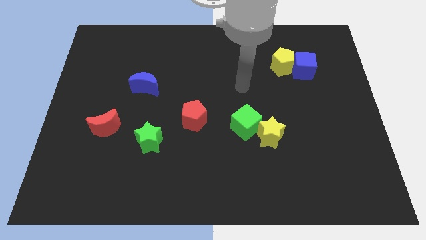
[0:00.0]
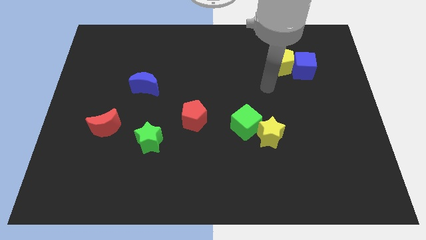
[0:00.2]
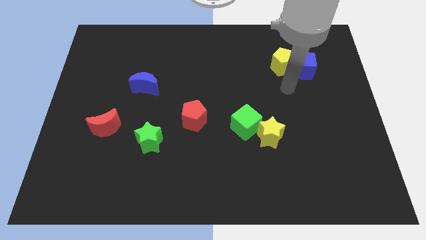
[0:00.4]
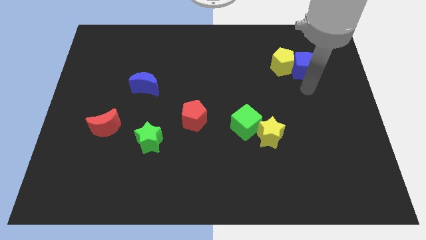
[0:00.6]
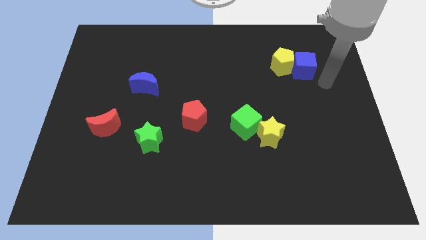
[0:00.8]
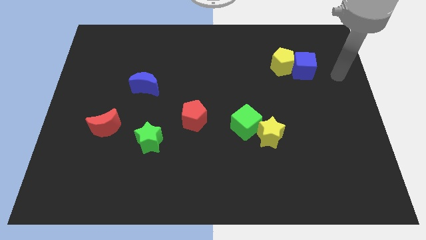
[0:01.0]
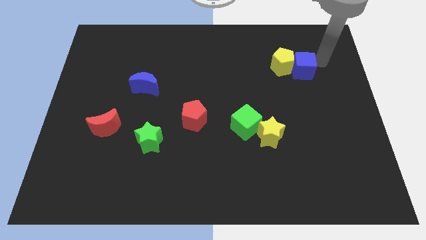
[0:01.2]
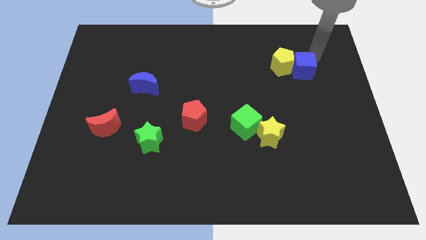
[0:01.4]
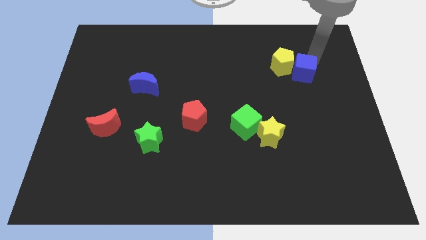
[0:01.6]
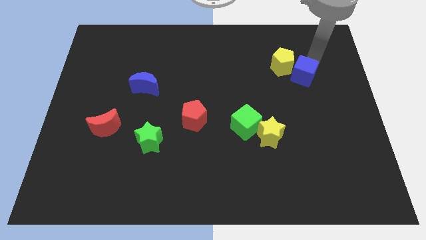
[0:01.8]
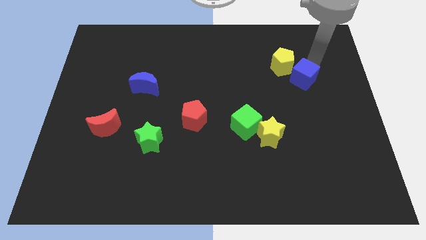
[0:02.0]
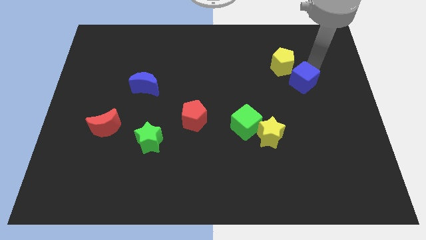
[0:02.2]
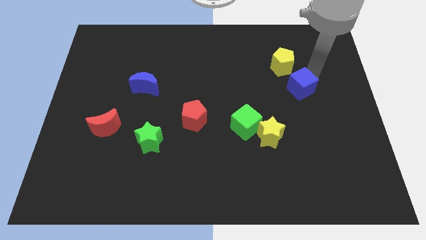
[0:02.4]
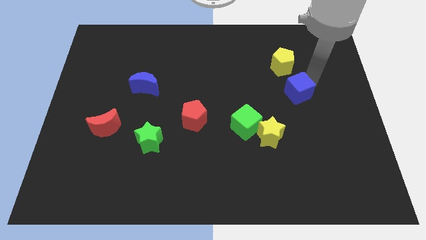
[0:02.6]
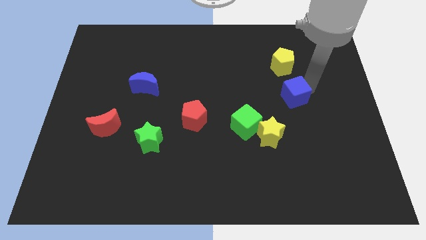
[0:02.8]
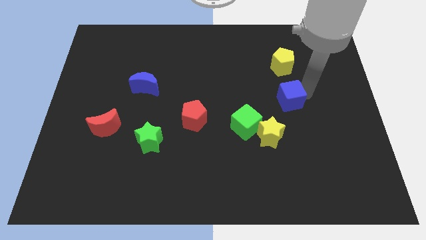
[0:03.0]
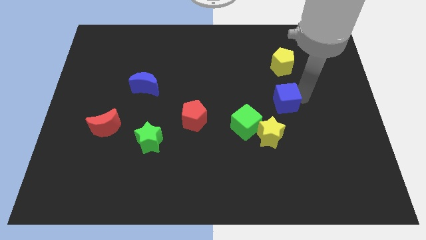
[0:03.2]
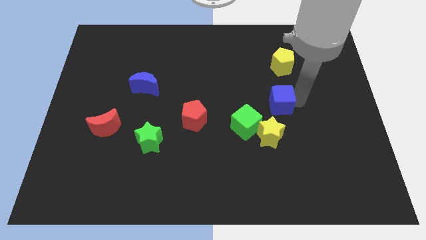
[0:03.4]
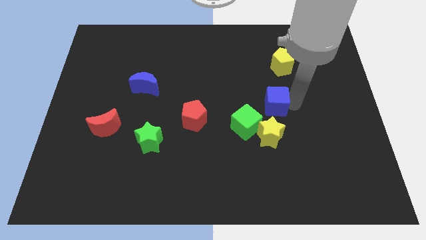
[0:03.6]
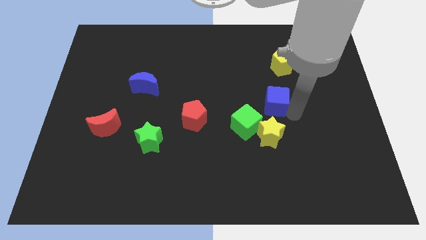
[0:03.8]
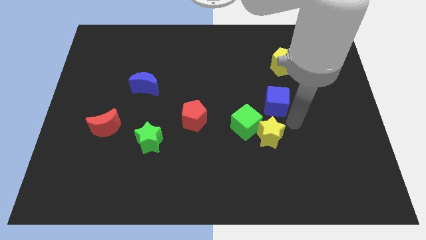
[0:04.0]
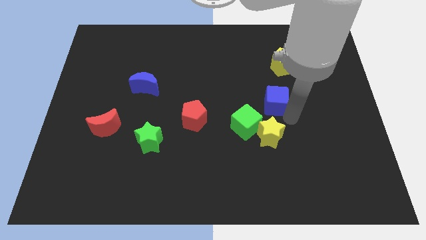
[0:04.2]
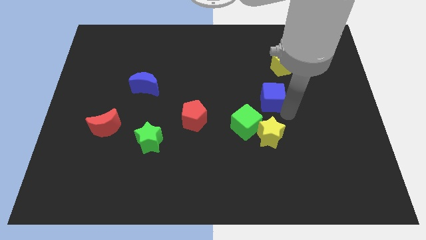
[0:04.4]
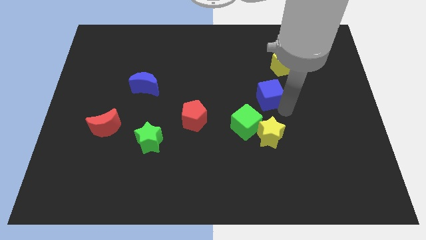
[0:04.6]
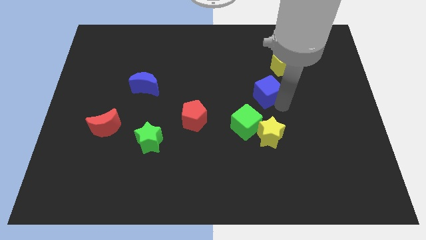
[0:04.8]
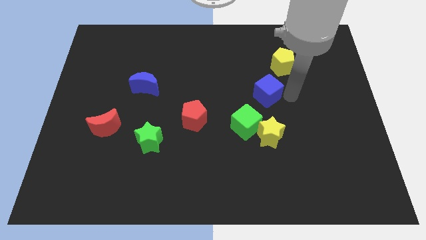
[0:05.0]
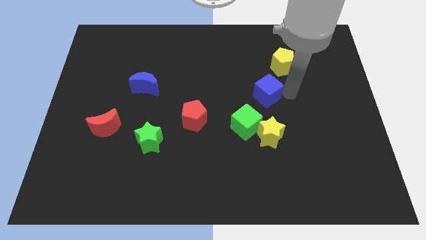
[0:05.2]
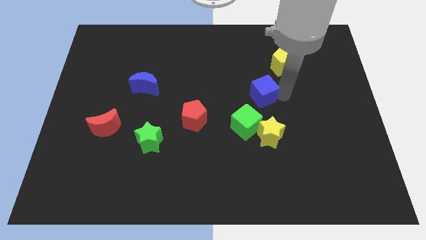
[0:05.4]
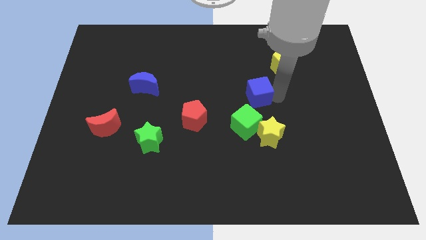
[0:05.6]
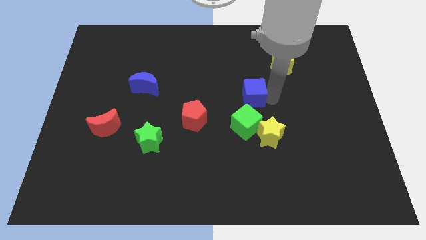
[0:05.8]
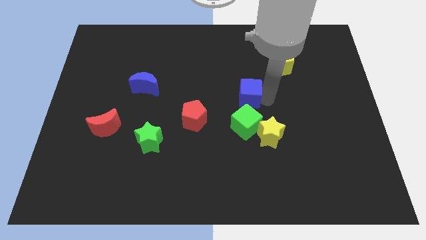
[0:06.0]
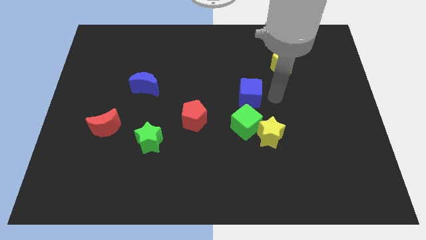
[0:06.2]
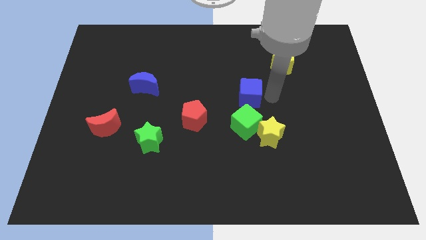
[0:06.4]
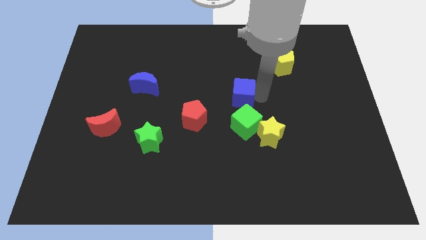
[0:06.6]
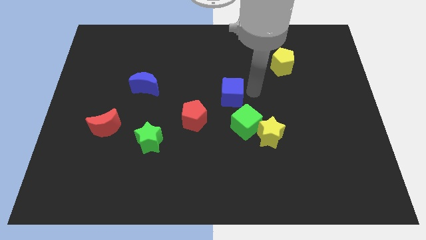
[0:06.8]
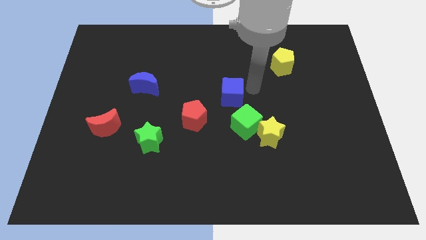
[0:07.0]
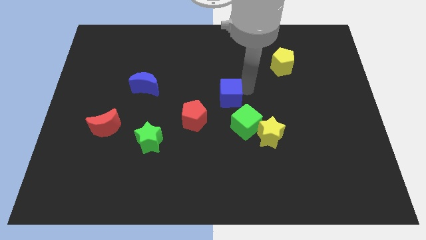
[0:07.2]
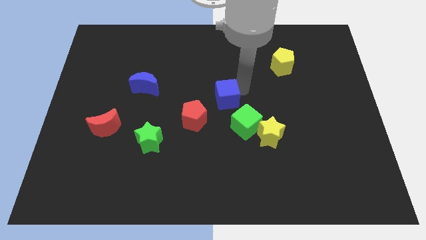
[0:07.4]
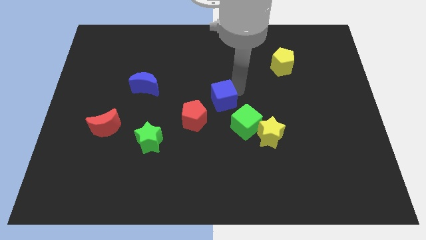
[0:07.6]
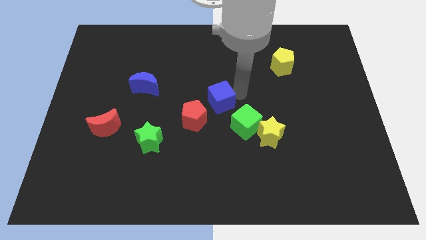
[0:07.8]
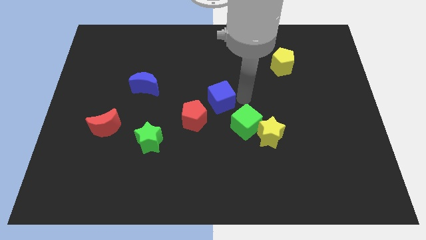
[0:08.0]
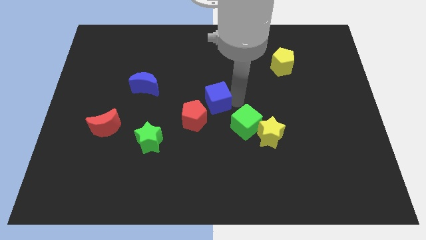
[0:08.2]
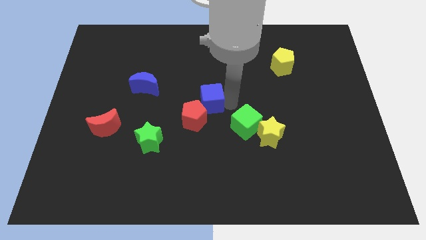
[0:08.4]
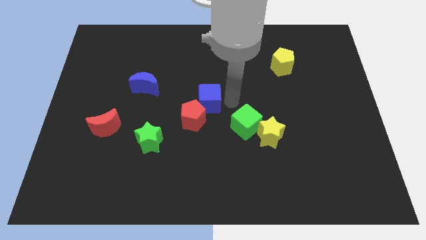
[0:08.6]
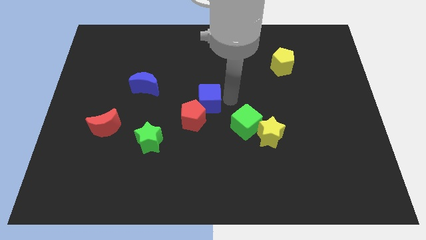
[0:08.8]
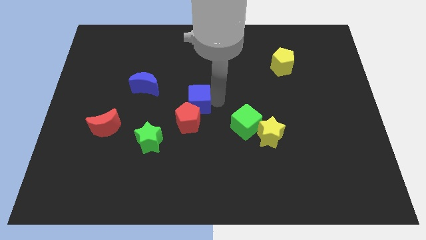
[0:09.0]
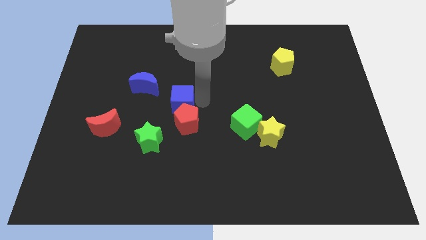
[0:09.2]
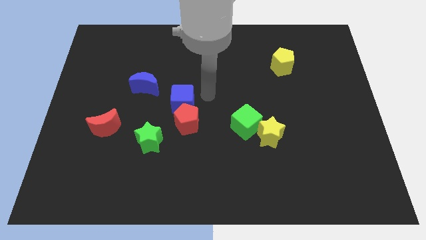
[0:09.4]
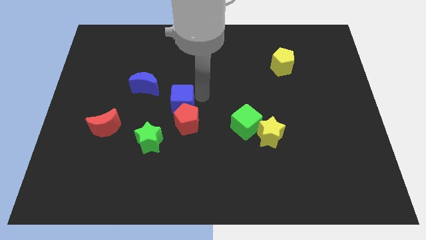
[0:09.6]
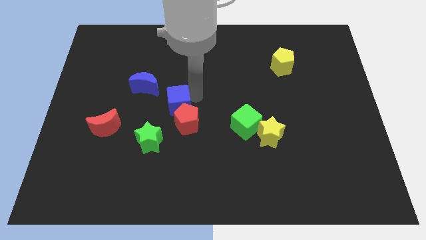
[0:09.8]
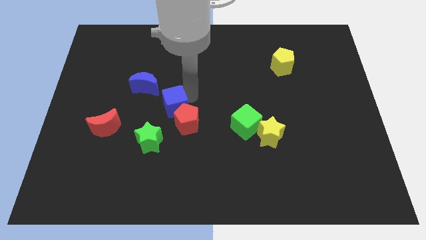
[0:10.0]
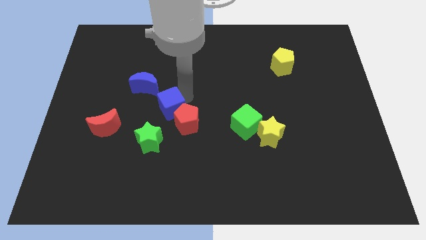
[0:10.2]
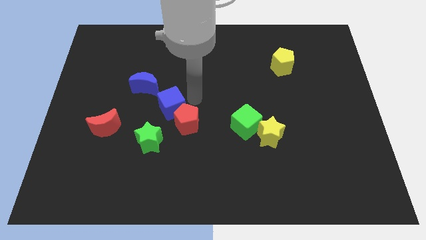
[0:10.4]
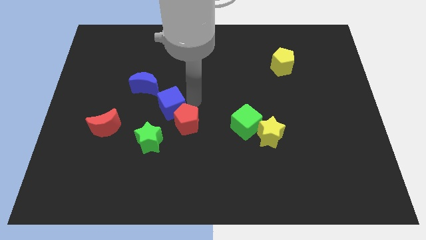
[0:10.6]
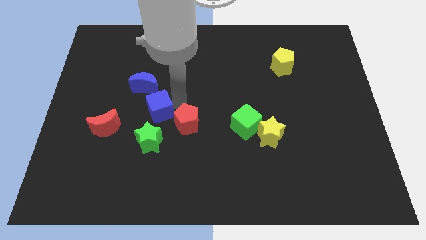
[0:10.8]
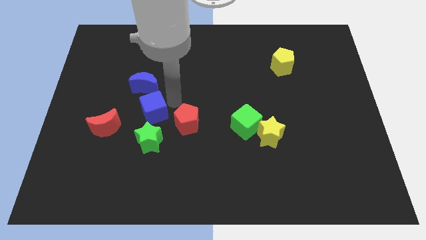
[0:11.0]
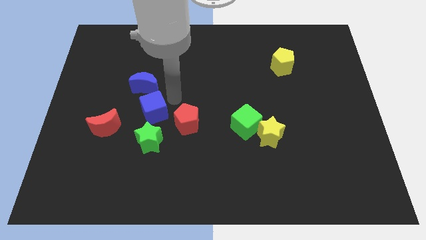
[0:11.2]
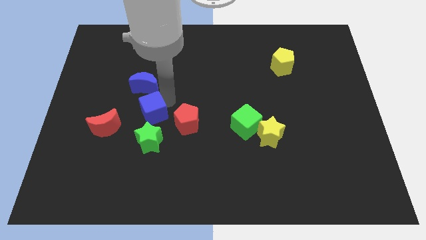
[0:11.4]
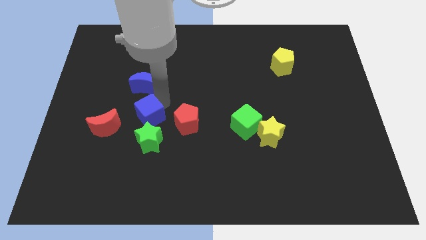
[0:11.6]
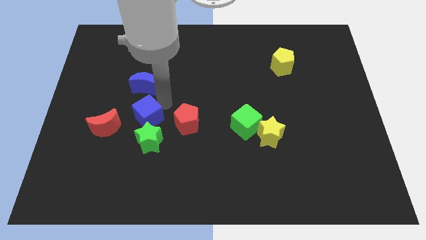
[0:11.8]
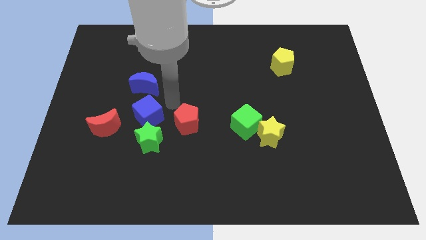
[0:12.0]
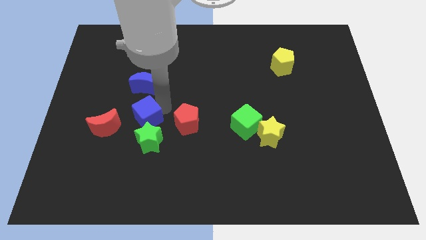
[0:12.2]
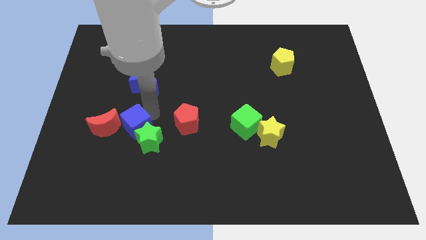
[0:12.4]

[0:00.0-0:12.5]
push the blue cube left of the green star
